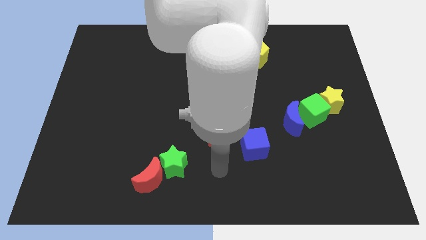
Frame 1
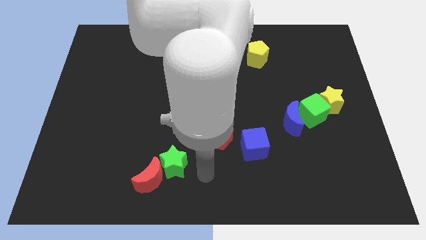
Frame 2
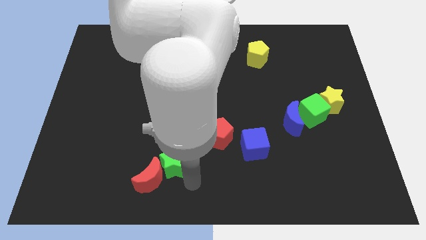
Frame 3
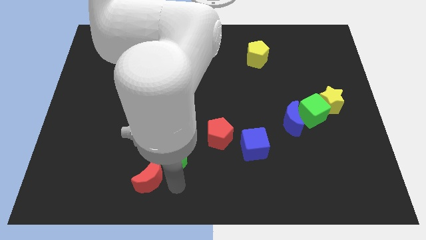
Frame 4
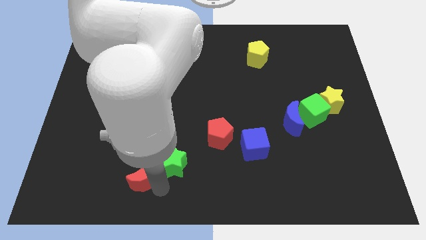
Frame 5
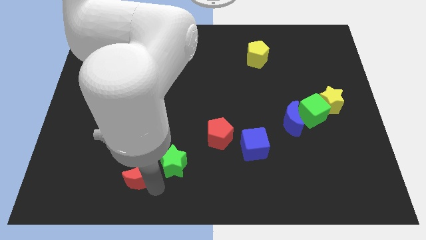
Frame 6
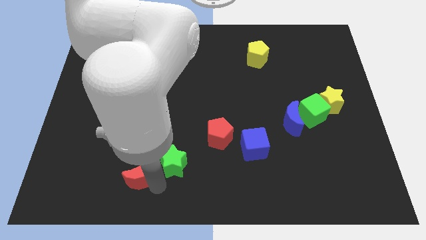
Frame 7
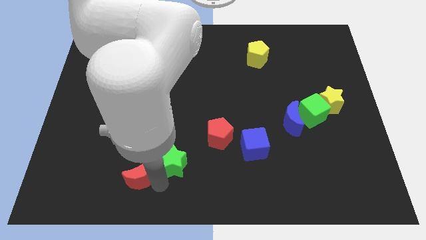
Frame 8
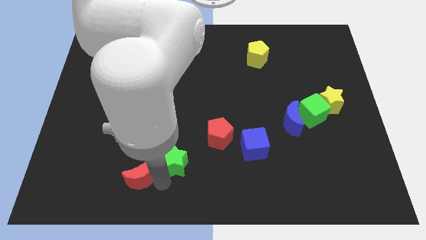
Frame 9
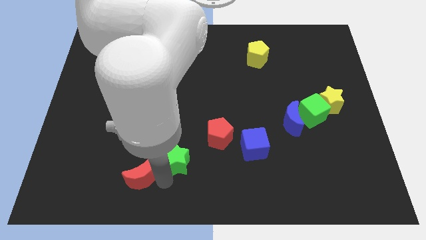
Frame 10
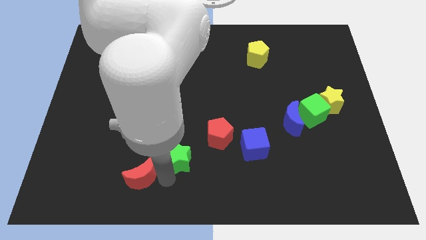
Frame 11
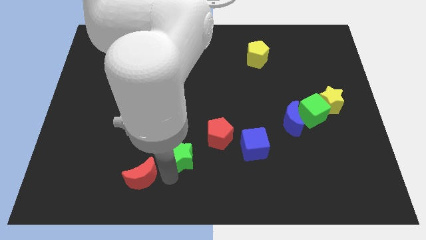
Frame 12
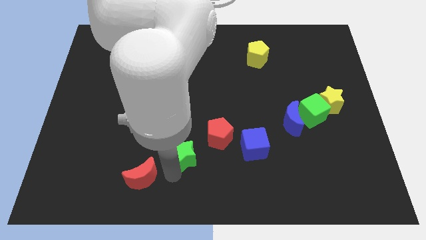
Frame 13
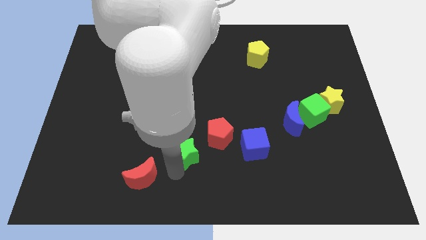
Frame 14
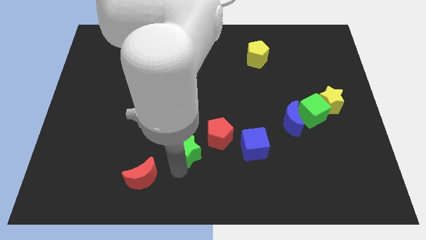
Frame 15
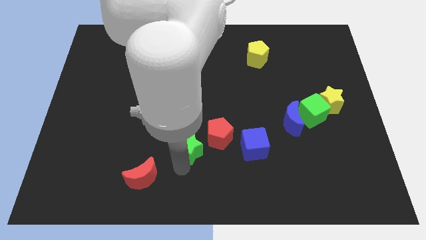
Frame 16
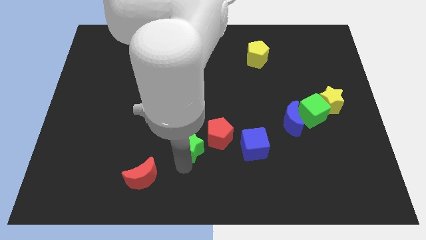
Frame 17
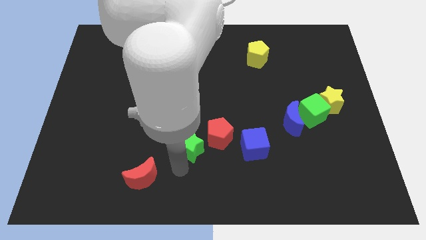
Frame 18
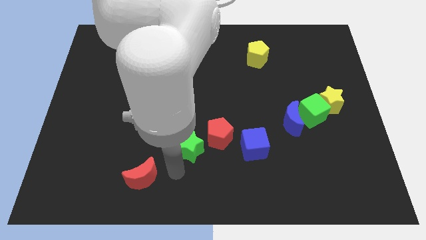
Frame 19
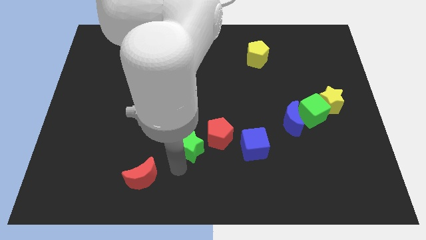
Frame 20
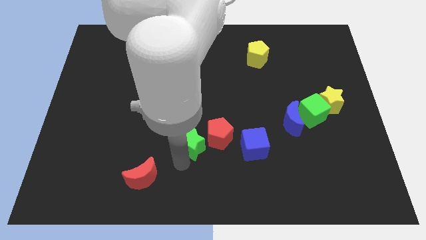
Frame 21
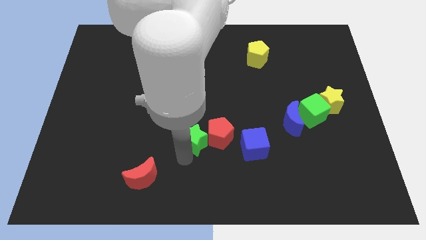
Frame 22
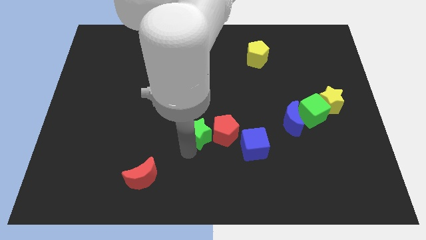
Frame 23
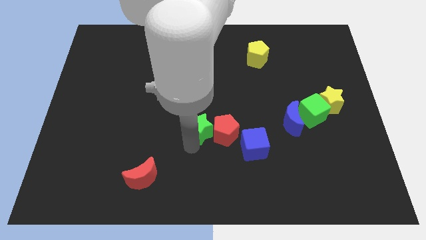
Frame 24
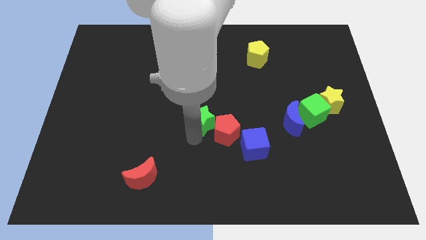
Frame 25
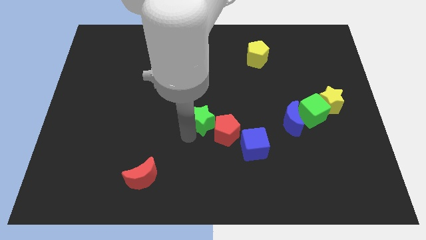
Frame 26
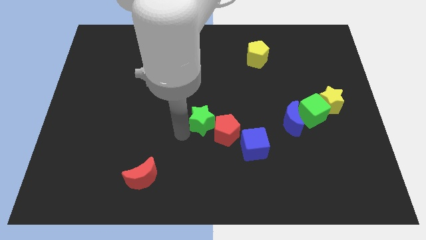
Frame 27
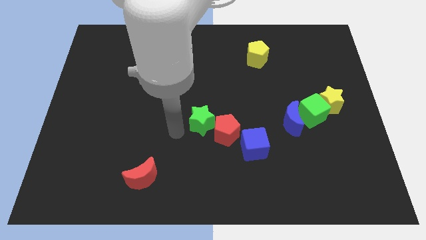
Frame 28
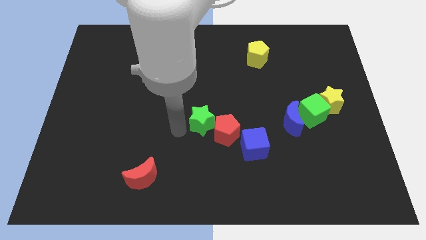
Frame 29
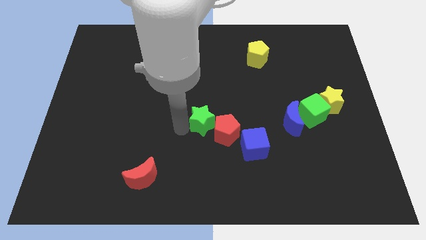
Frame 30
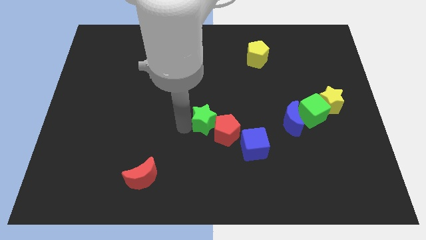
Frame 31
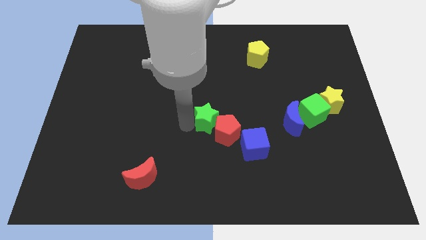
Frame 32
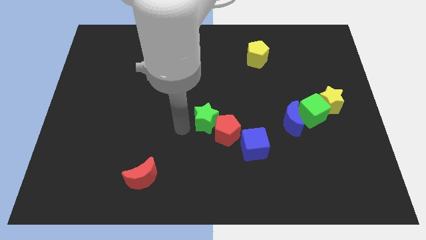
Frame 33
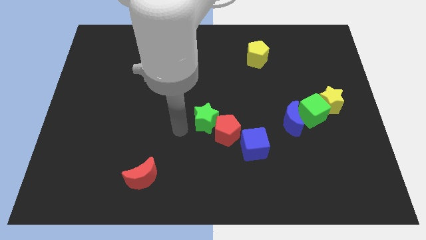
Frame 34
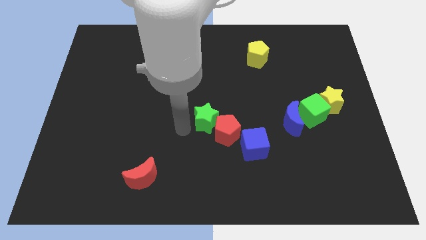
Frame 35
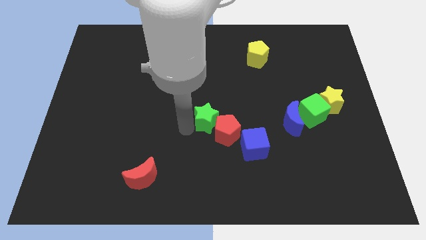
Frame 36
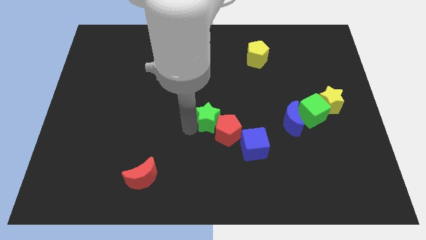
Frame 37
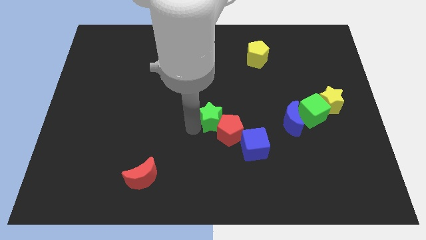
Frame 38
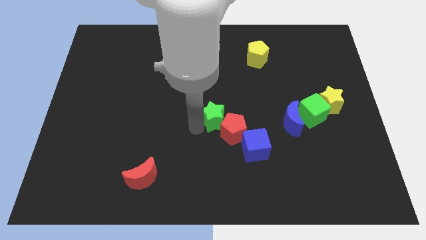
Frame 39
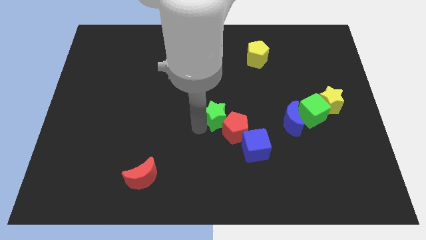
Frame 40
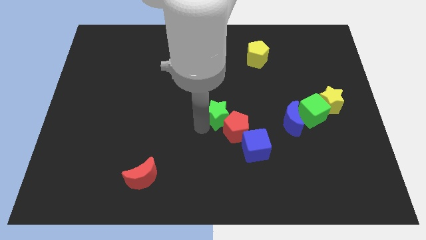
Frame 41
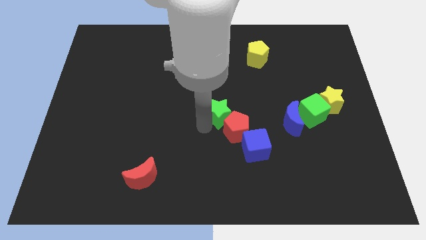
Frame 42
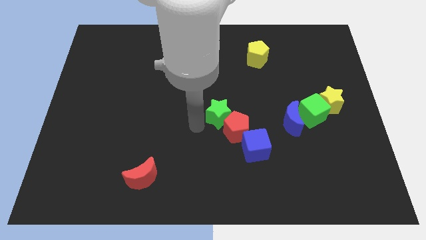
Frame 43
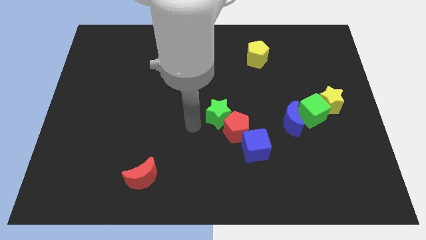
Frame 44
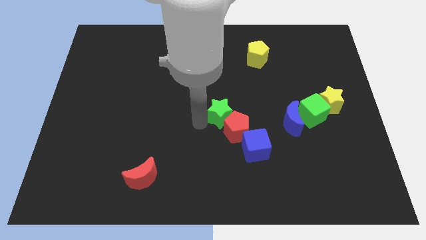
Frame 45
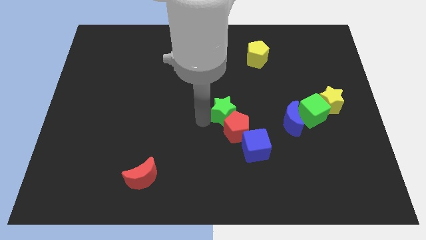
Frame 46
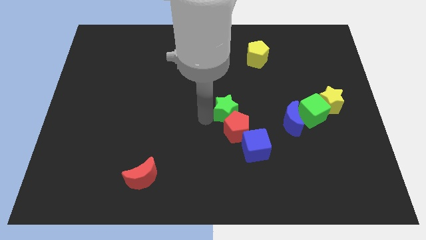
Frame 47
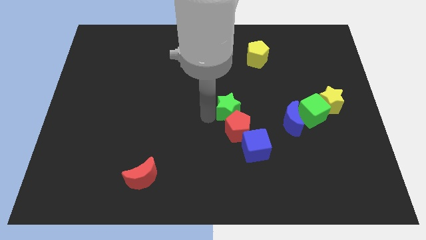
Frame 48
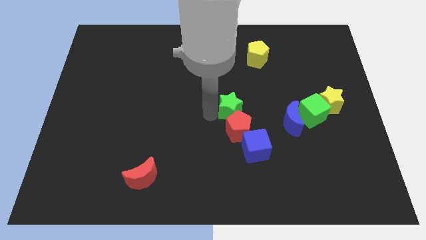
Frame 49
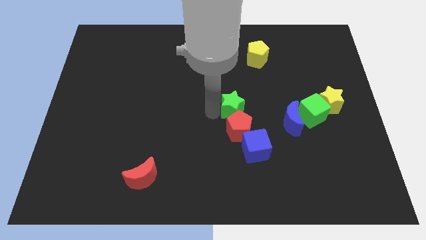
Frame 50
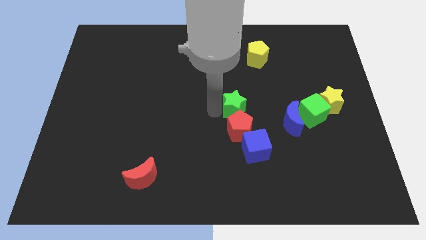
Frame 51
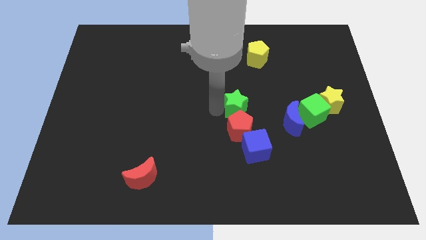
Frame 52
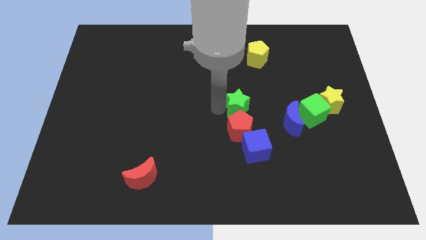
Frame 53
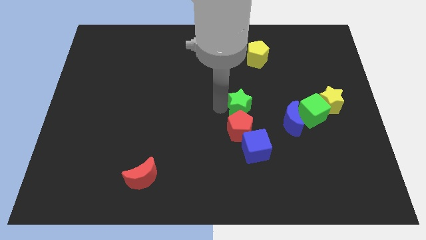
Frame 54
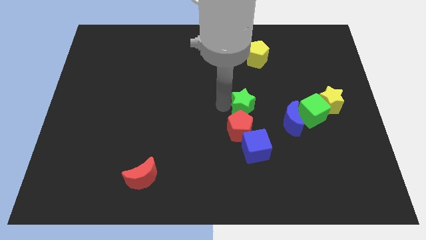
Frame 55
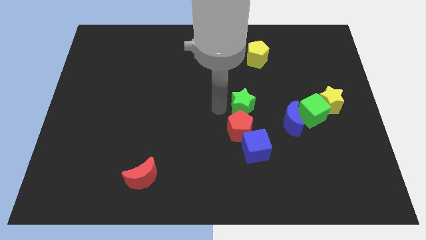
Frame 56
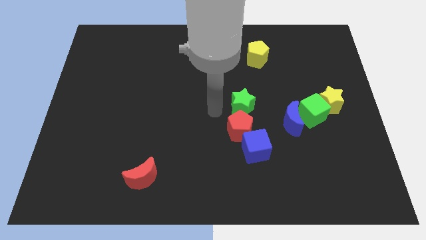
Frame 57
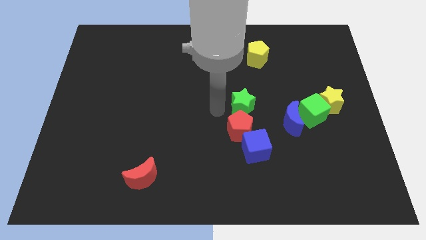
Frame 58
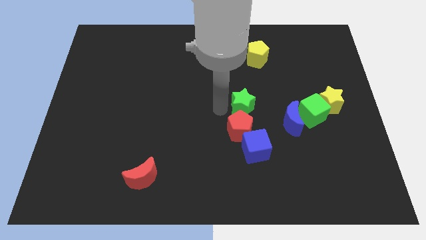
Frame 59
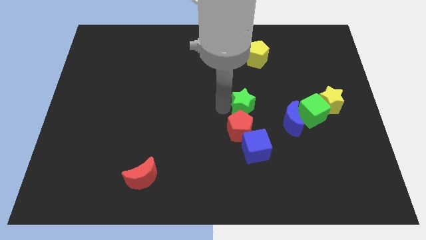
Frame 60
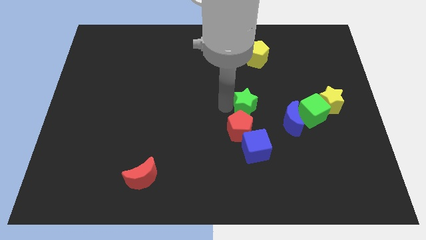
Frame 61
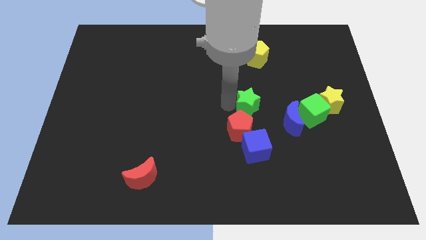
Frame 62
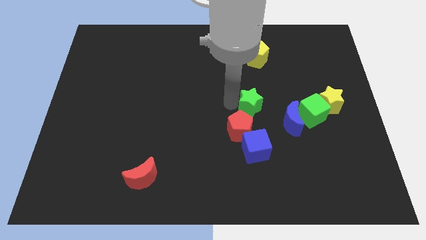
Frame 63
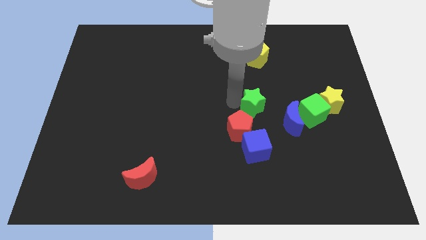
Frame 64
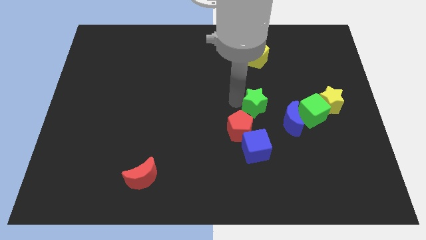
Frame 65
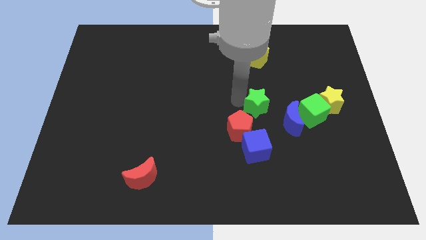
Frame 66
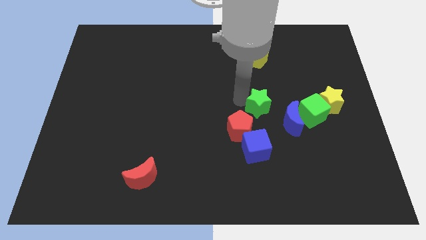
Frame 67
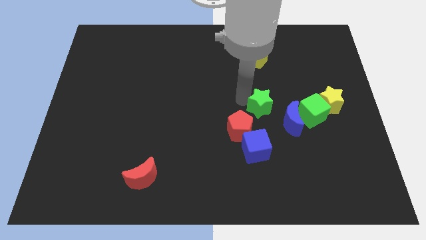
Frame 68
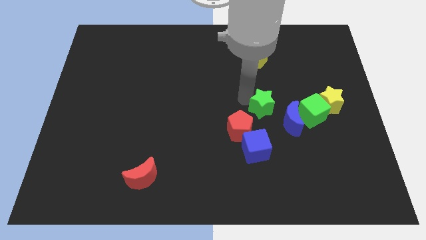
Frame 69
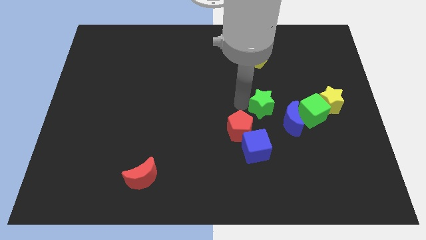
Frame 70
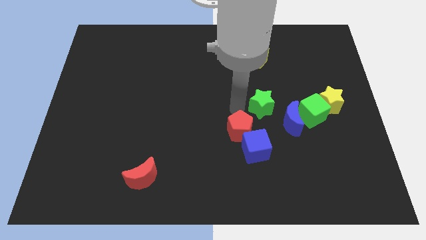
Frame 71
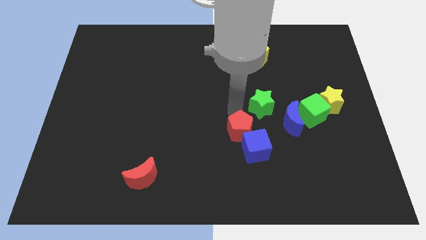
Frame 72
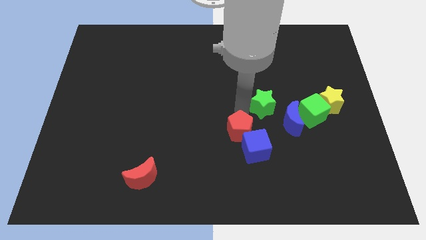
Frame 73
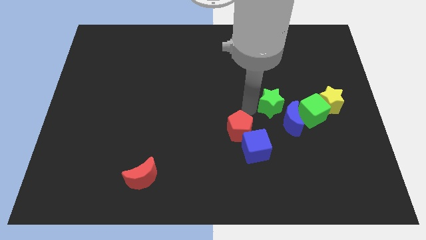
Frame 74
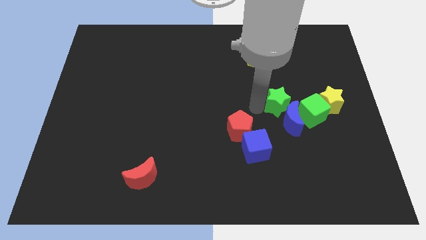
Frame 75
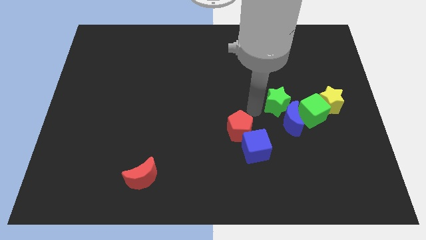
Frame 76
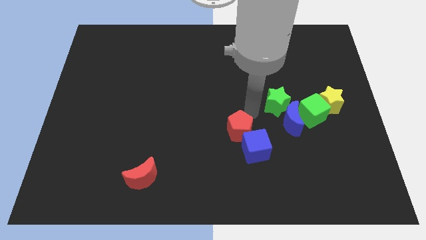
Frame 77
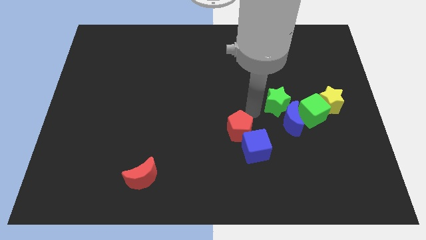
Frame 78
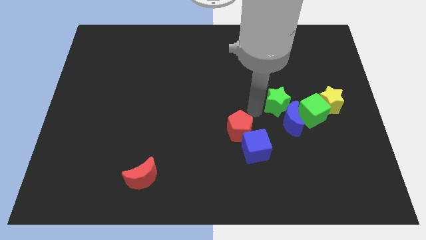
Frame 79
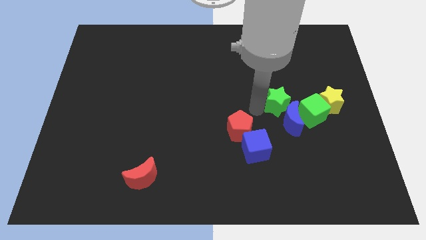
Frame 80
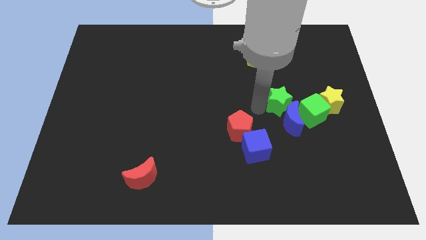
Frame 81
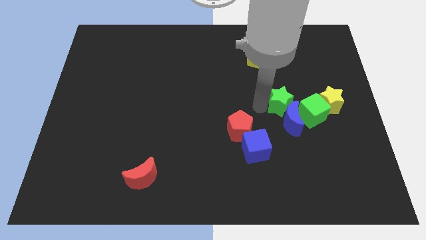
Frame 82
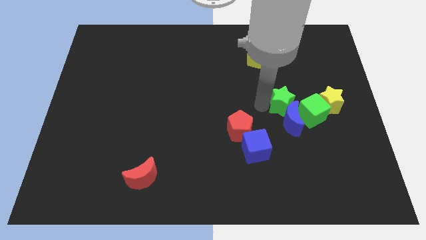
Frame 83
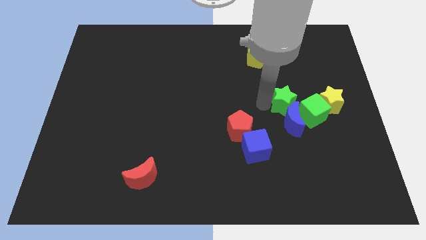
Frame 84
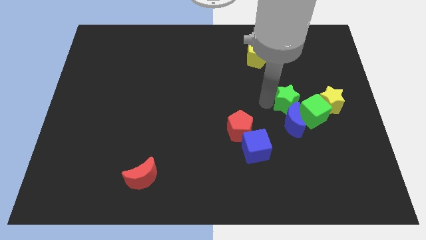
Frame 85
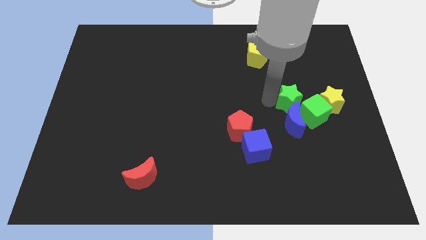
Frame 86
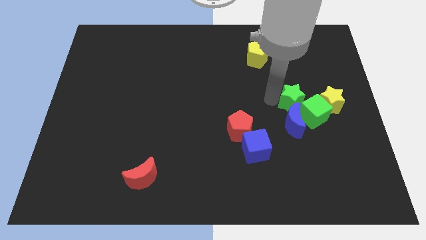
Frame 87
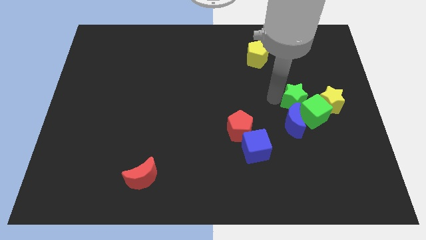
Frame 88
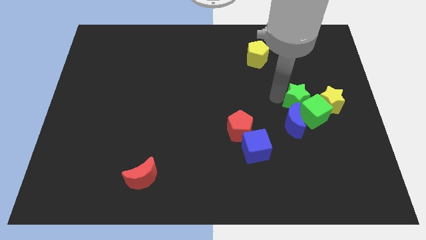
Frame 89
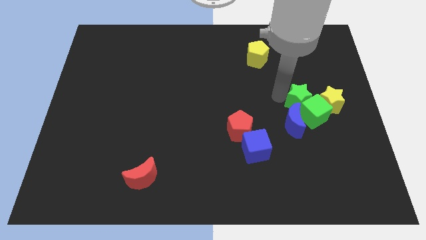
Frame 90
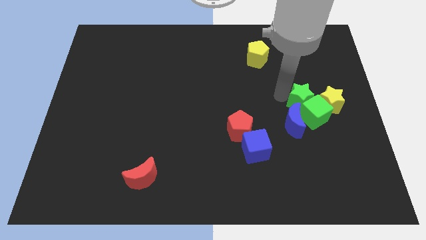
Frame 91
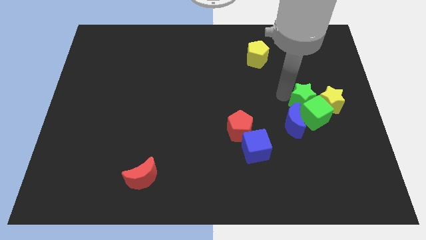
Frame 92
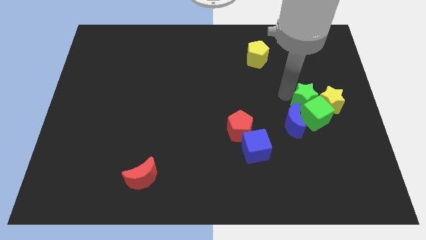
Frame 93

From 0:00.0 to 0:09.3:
move the green star to the yellow star
